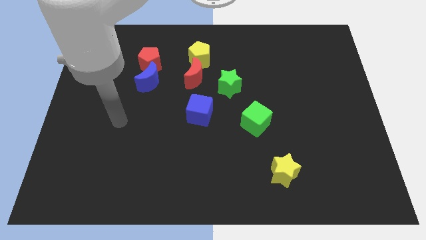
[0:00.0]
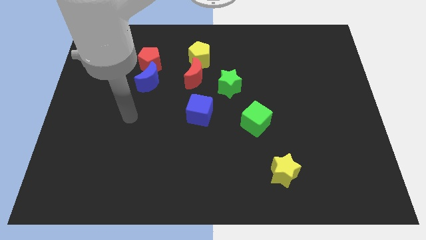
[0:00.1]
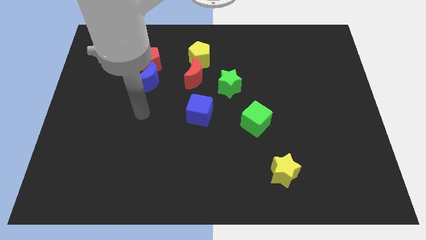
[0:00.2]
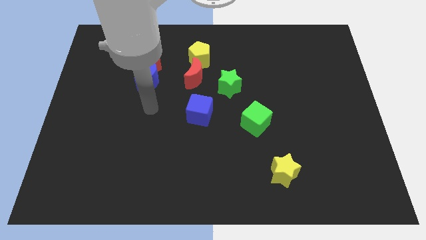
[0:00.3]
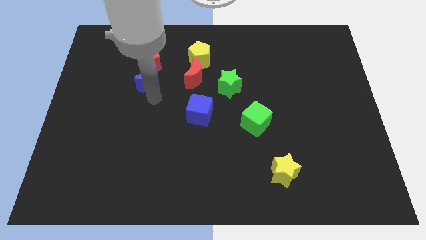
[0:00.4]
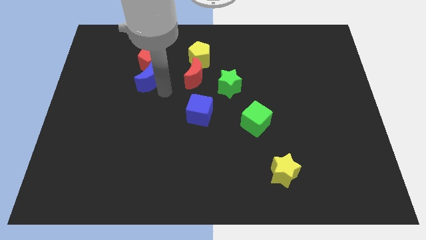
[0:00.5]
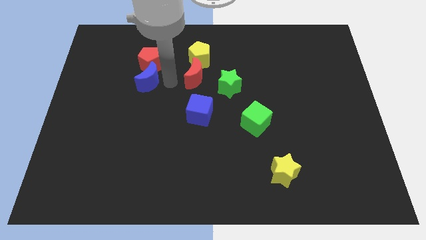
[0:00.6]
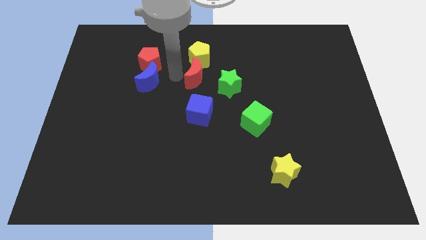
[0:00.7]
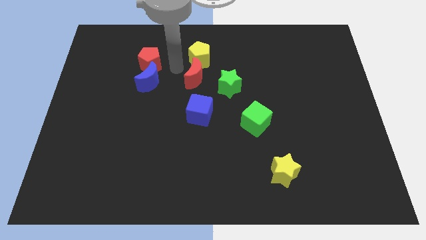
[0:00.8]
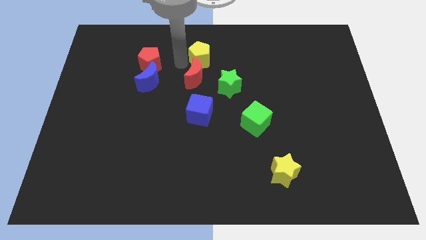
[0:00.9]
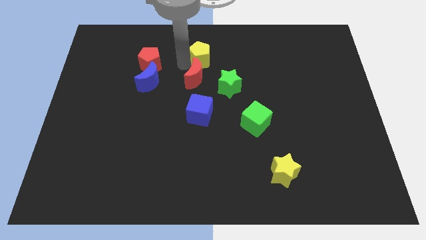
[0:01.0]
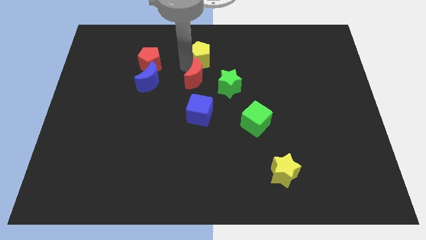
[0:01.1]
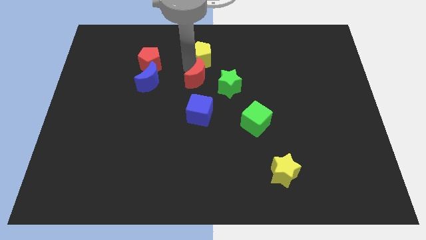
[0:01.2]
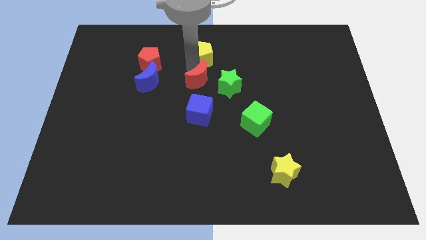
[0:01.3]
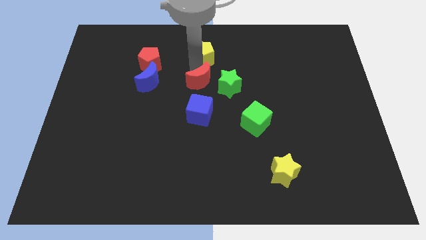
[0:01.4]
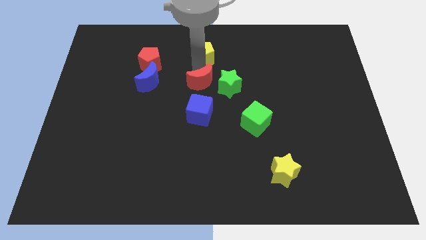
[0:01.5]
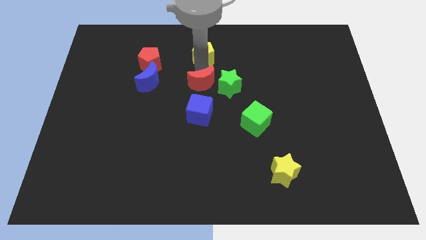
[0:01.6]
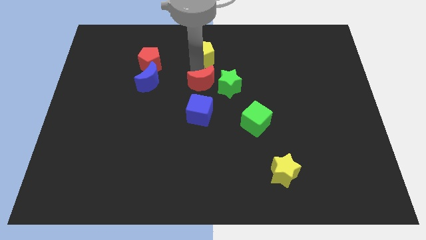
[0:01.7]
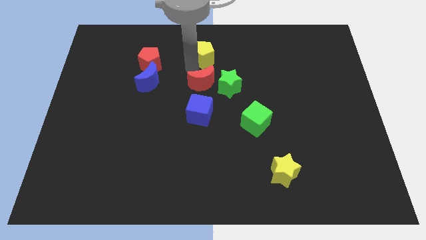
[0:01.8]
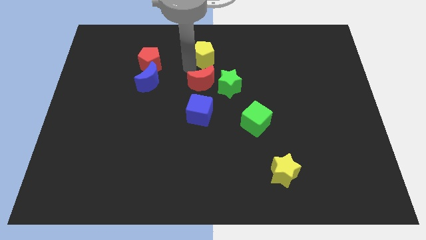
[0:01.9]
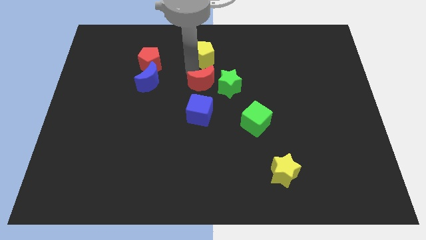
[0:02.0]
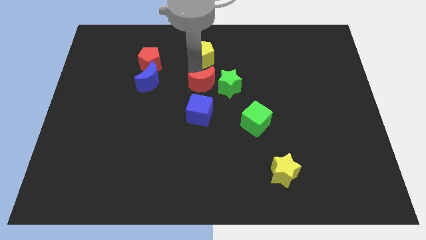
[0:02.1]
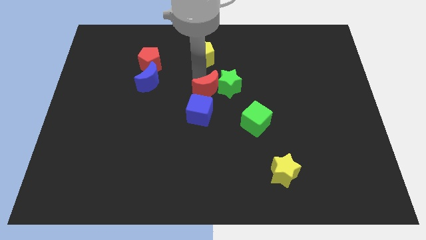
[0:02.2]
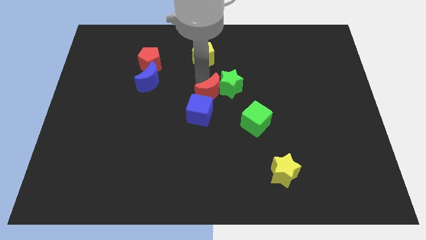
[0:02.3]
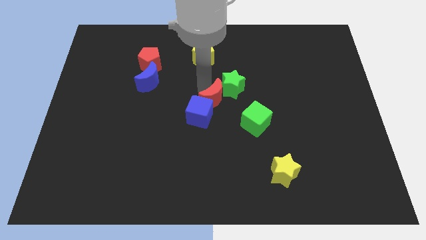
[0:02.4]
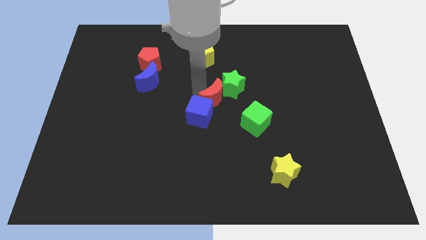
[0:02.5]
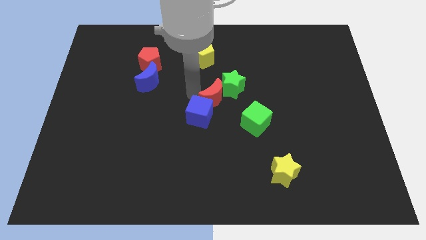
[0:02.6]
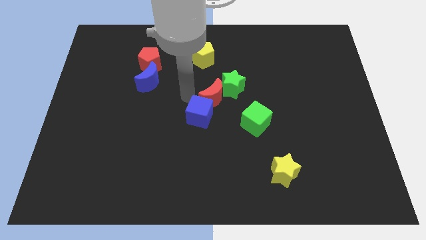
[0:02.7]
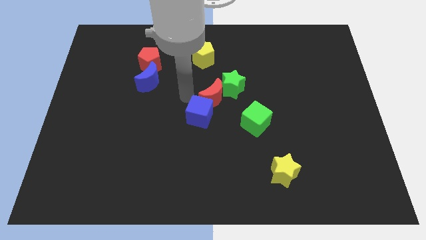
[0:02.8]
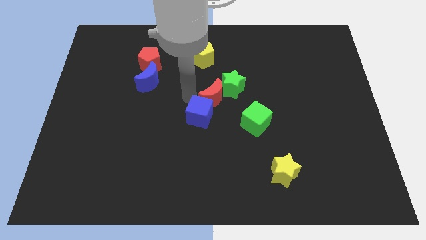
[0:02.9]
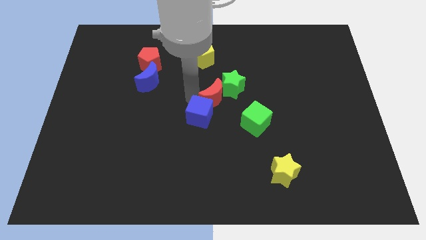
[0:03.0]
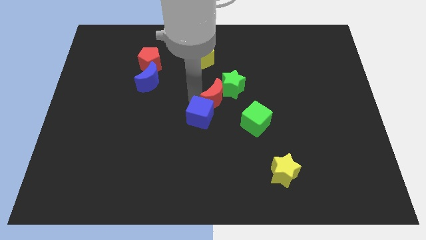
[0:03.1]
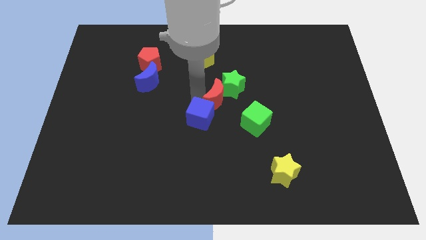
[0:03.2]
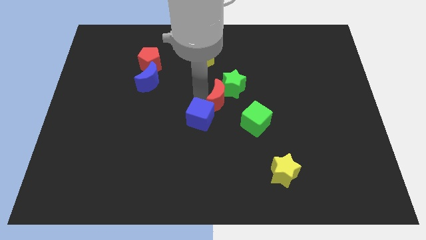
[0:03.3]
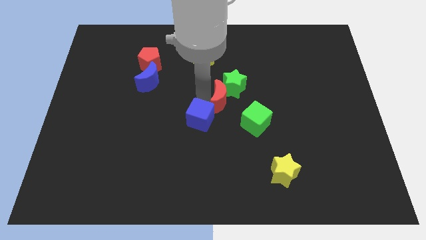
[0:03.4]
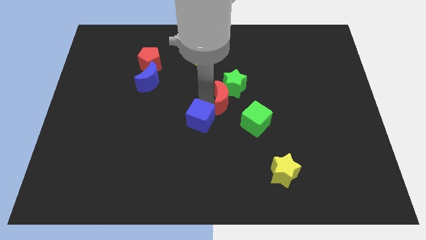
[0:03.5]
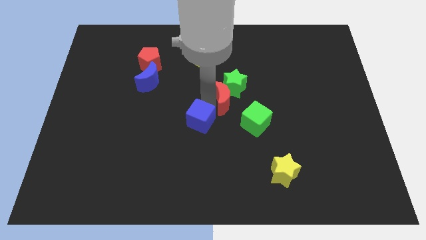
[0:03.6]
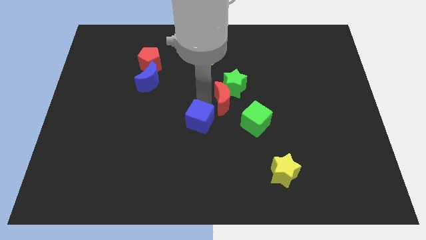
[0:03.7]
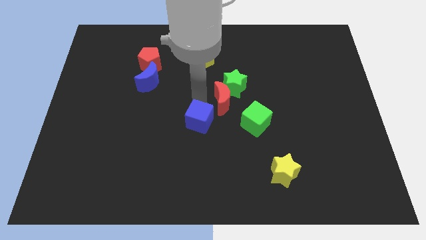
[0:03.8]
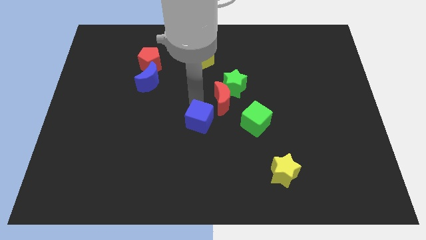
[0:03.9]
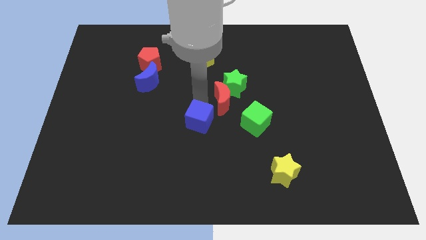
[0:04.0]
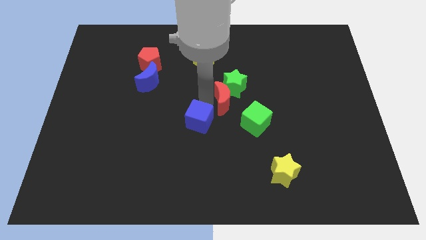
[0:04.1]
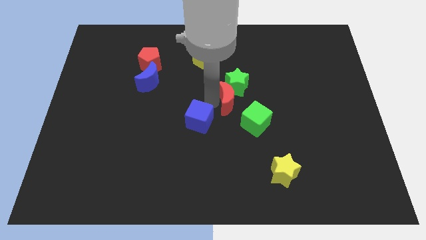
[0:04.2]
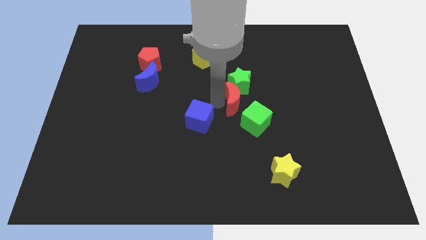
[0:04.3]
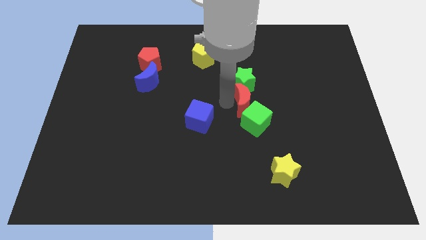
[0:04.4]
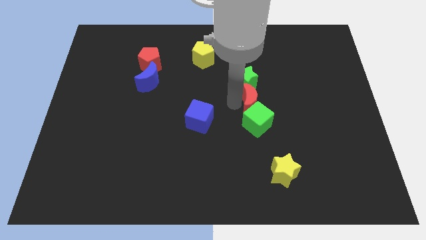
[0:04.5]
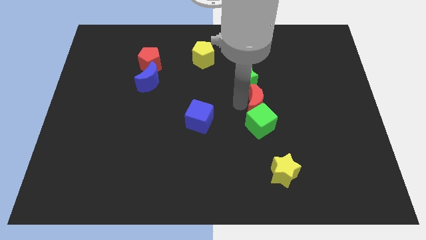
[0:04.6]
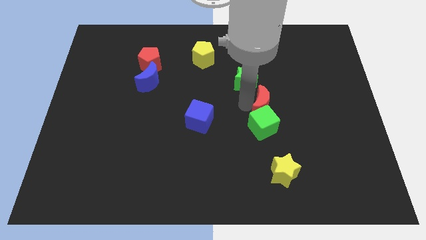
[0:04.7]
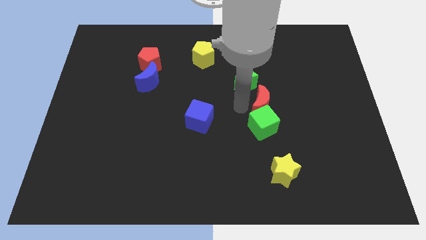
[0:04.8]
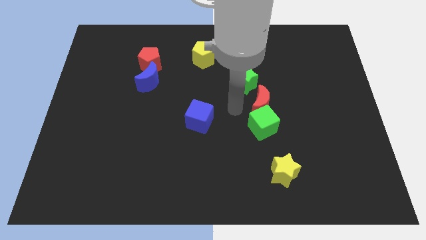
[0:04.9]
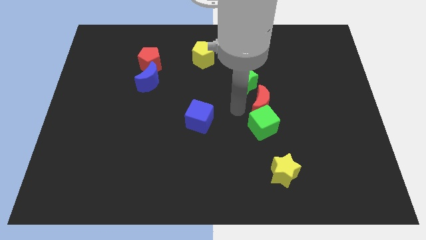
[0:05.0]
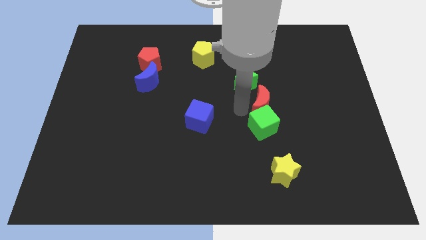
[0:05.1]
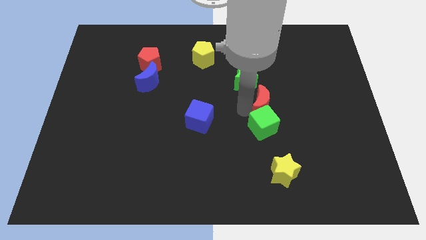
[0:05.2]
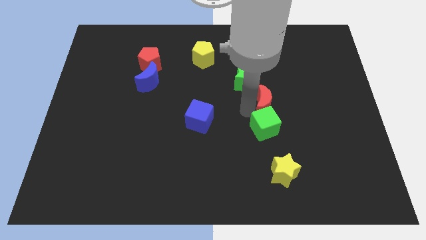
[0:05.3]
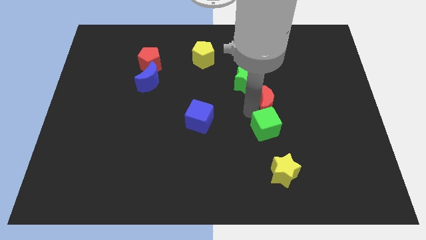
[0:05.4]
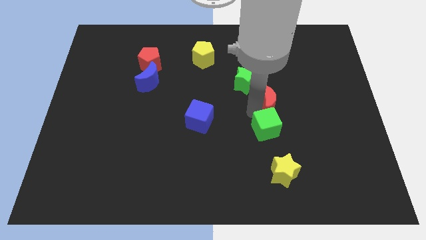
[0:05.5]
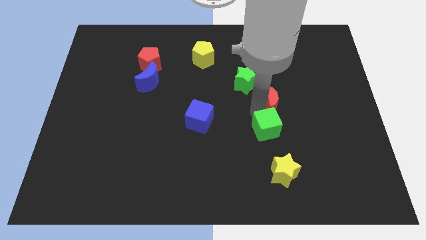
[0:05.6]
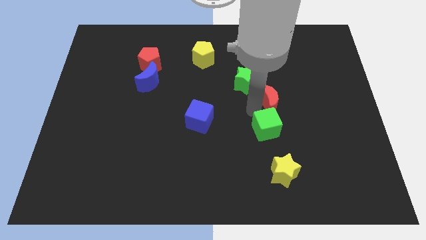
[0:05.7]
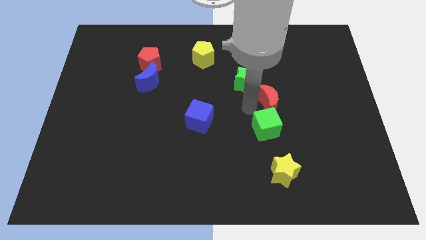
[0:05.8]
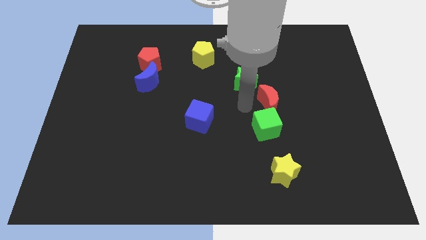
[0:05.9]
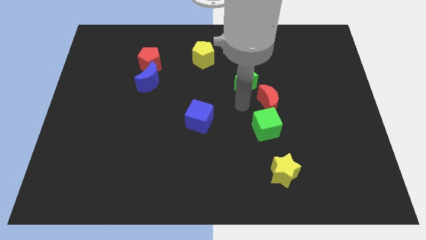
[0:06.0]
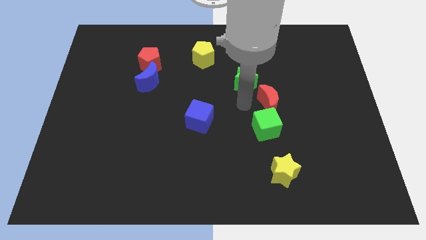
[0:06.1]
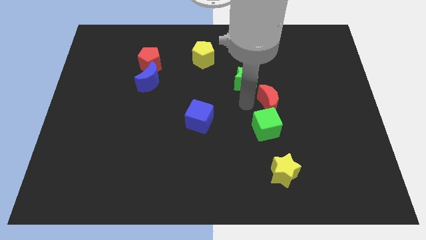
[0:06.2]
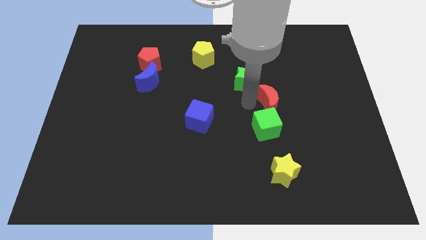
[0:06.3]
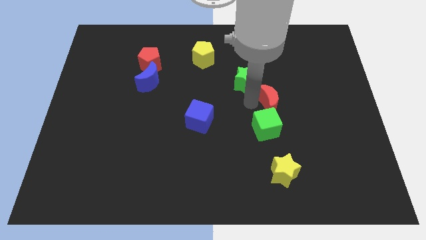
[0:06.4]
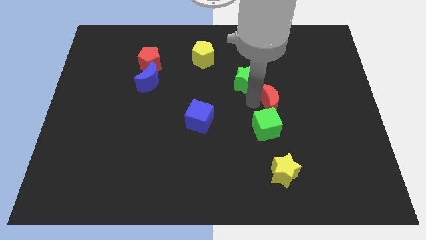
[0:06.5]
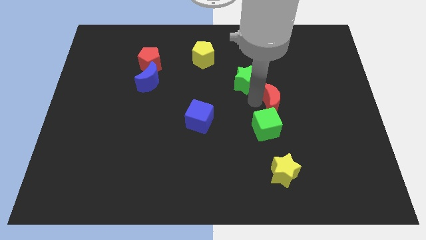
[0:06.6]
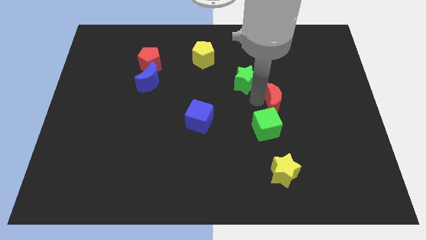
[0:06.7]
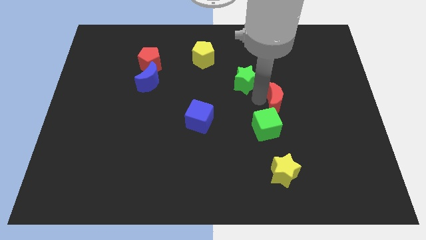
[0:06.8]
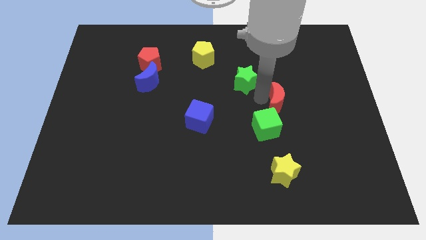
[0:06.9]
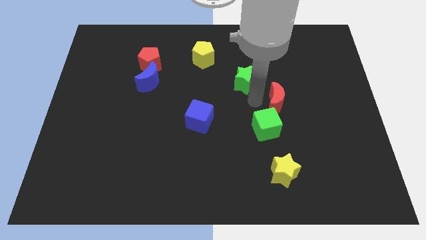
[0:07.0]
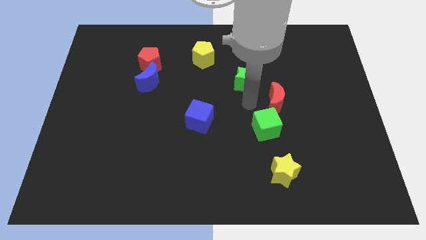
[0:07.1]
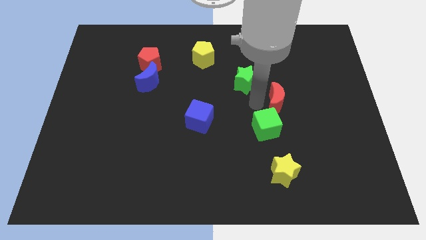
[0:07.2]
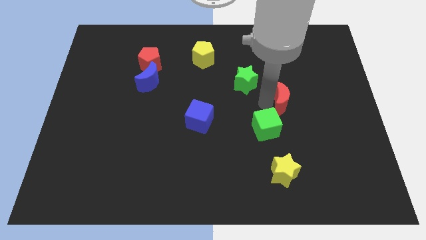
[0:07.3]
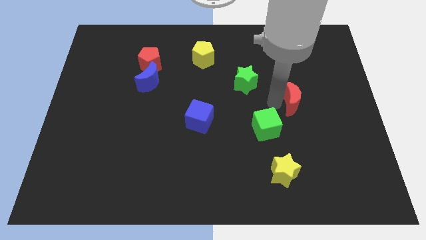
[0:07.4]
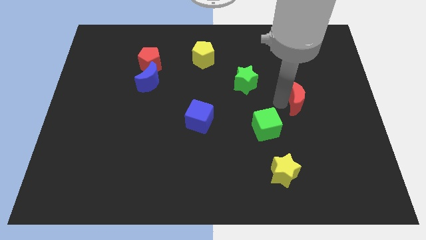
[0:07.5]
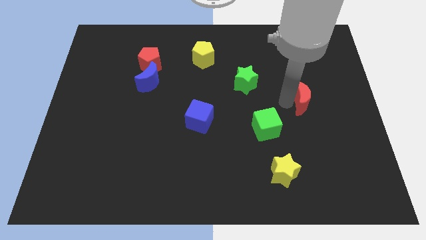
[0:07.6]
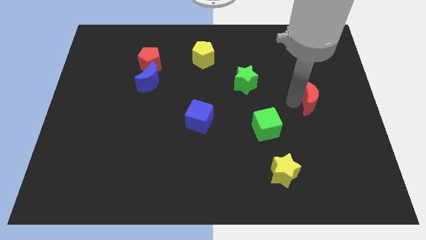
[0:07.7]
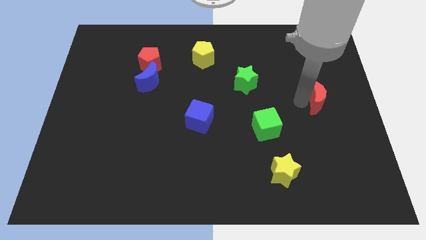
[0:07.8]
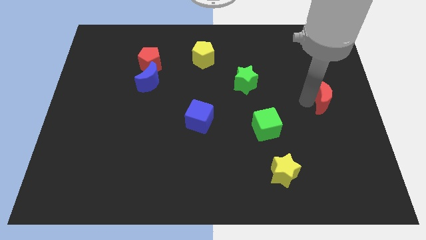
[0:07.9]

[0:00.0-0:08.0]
put the red moon to the center right

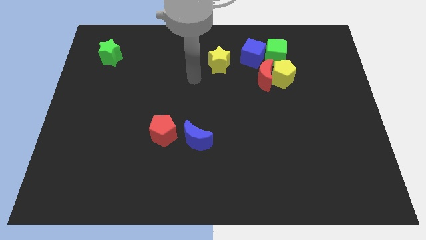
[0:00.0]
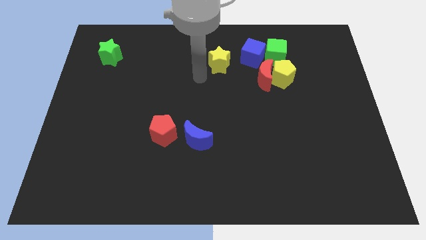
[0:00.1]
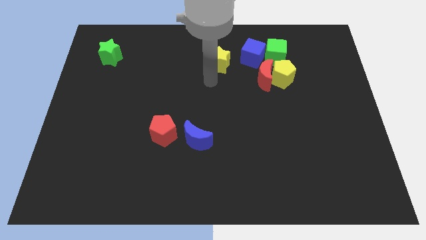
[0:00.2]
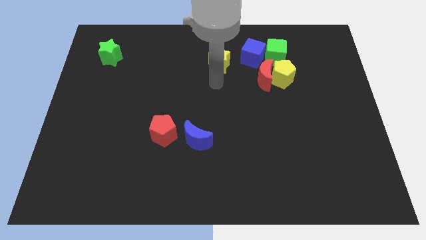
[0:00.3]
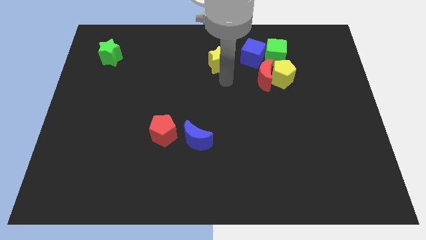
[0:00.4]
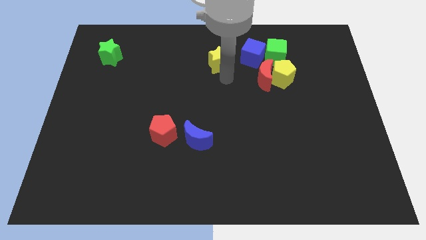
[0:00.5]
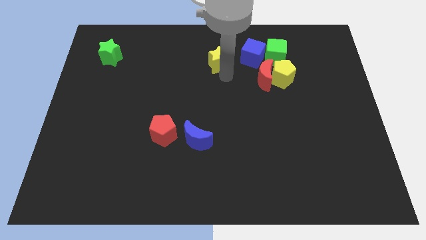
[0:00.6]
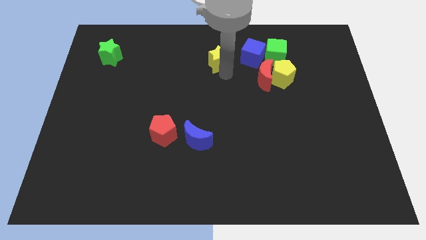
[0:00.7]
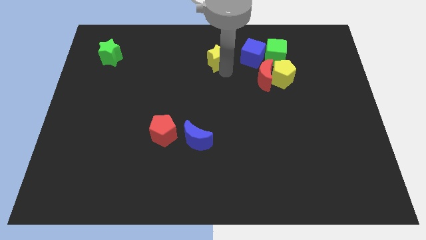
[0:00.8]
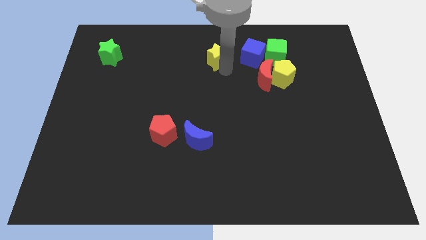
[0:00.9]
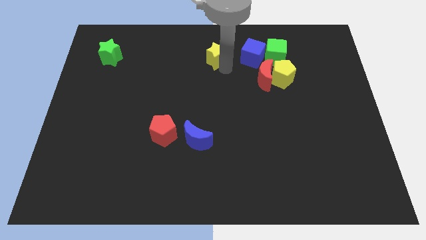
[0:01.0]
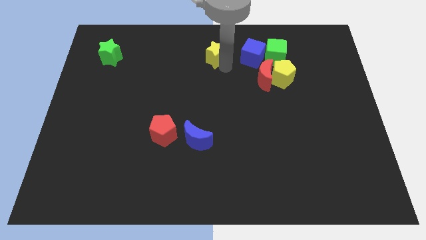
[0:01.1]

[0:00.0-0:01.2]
slide the yellow star to the top side
